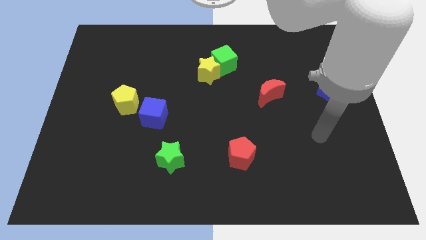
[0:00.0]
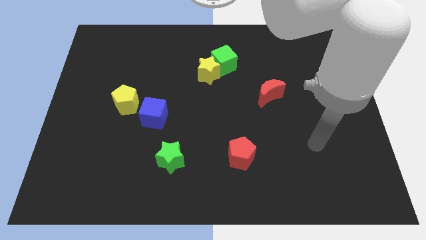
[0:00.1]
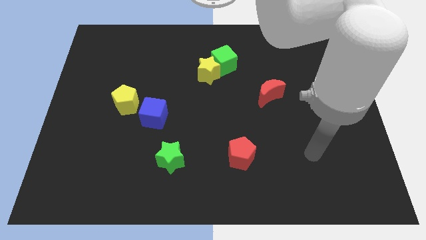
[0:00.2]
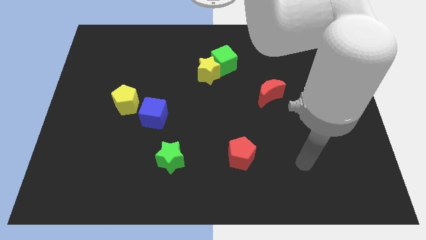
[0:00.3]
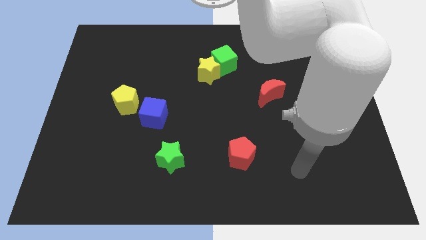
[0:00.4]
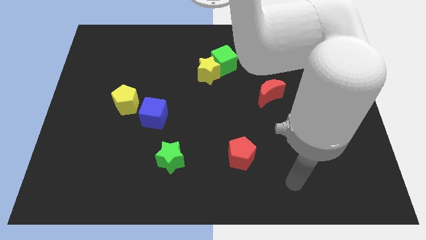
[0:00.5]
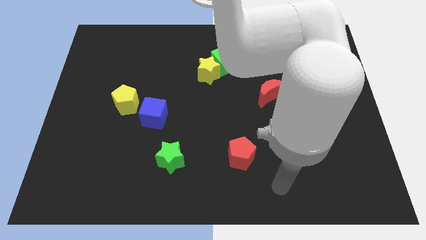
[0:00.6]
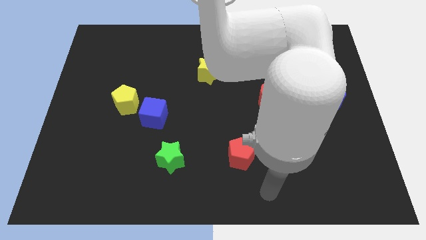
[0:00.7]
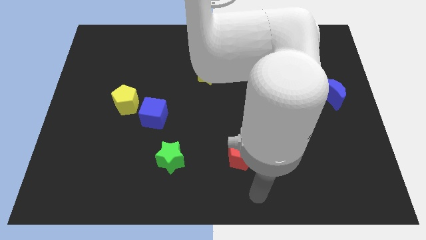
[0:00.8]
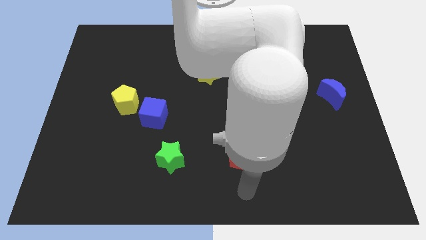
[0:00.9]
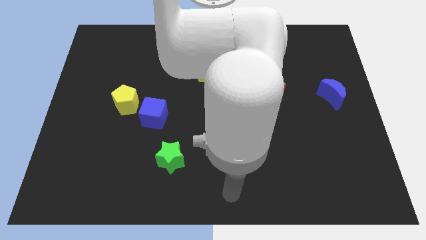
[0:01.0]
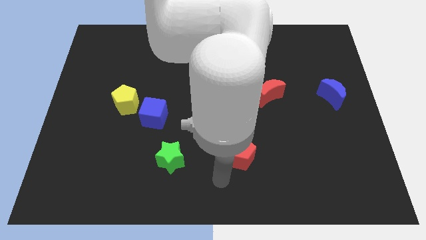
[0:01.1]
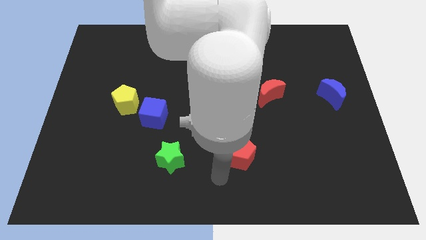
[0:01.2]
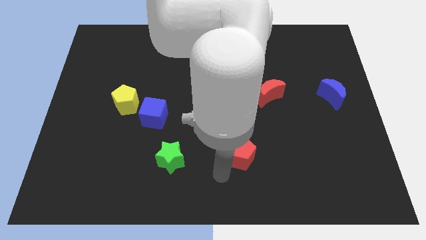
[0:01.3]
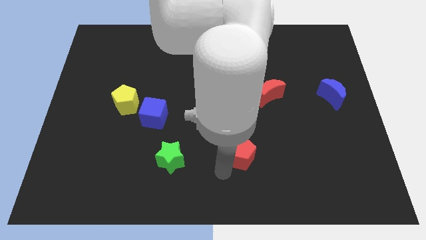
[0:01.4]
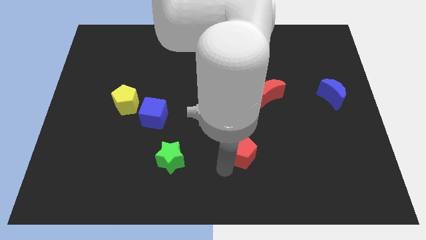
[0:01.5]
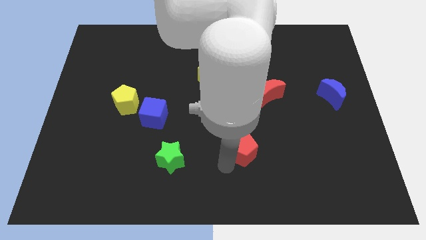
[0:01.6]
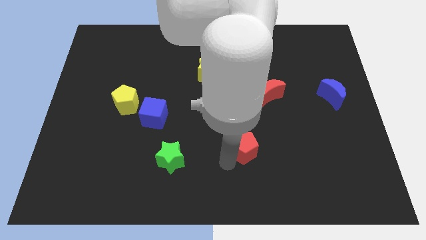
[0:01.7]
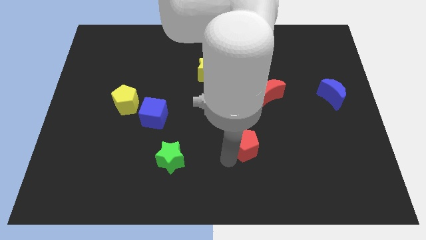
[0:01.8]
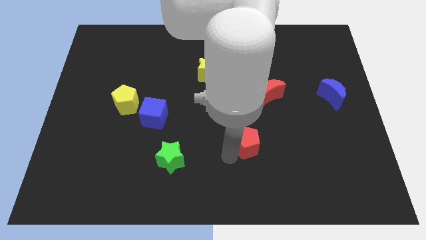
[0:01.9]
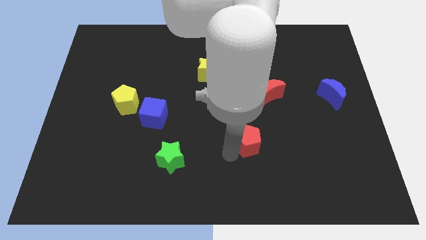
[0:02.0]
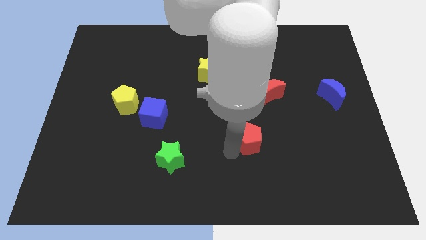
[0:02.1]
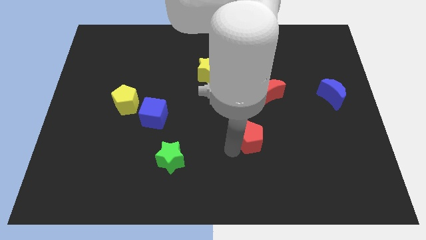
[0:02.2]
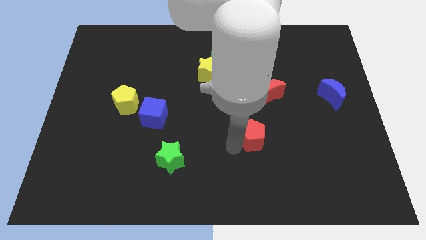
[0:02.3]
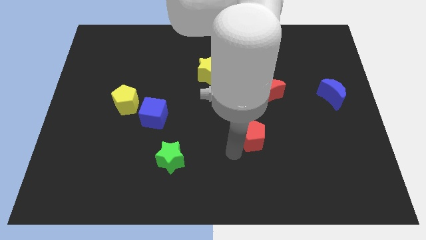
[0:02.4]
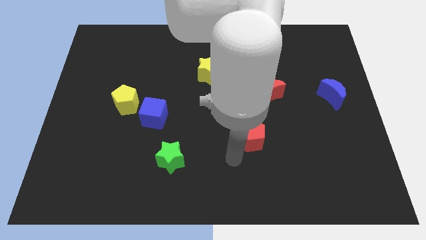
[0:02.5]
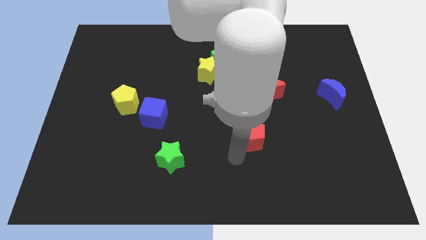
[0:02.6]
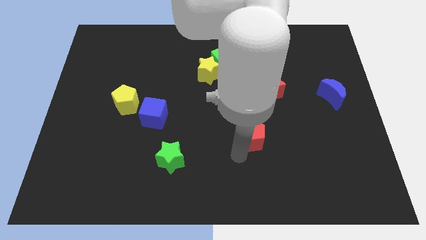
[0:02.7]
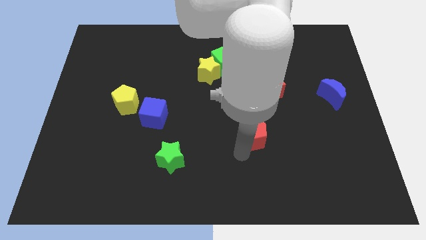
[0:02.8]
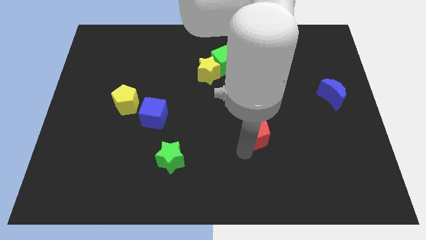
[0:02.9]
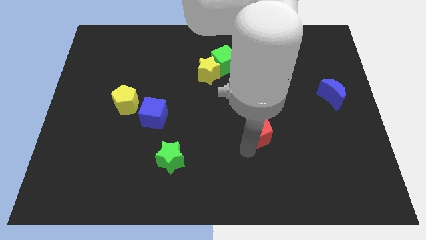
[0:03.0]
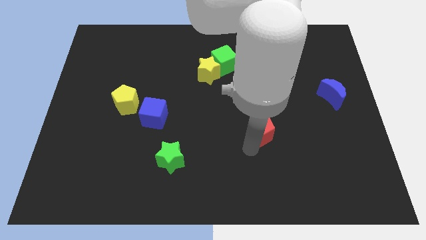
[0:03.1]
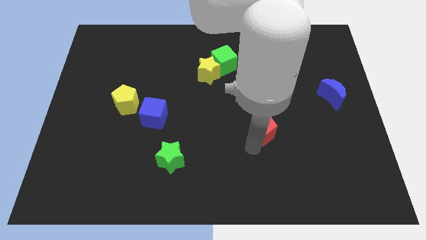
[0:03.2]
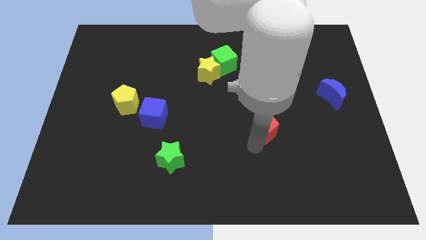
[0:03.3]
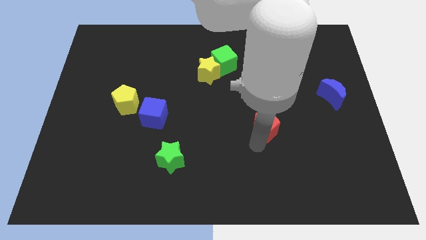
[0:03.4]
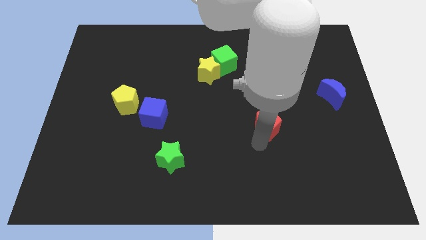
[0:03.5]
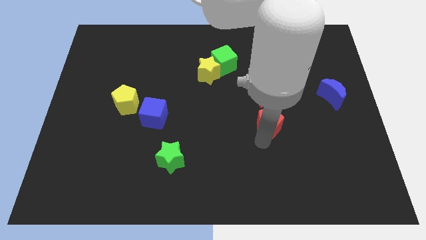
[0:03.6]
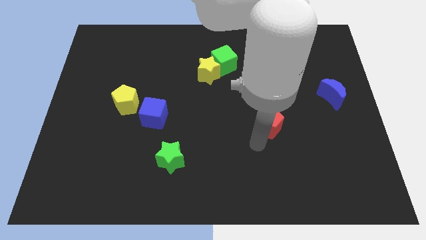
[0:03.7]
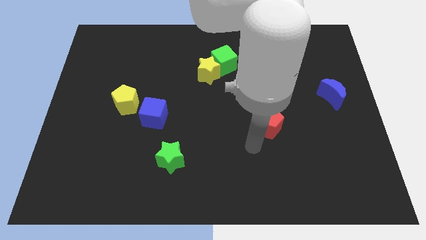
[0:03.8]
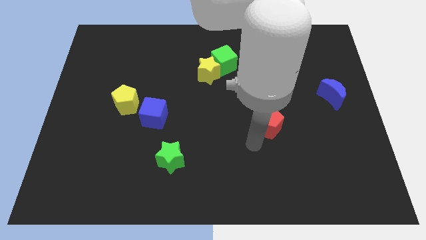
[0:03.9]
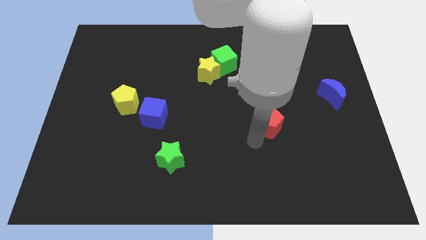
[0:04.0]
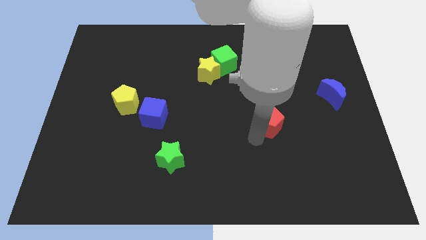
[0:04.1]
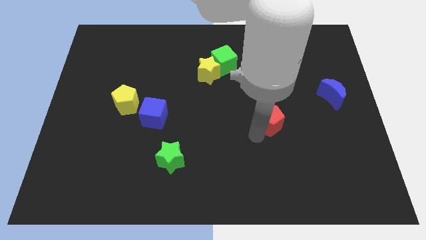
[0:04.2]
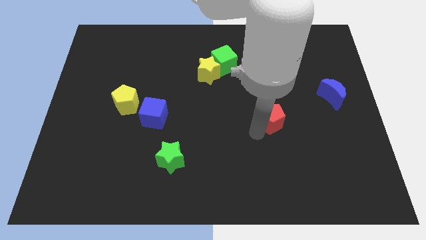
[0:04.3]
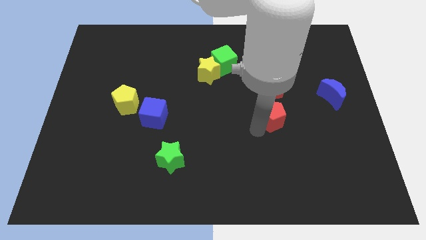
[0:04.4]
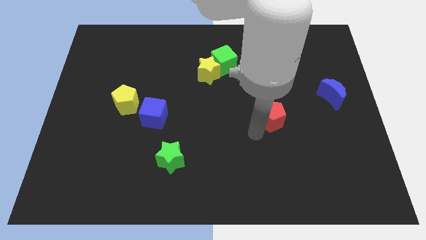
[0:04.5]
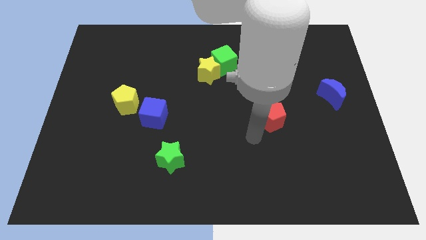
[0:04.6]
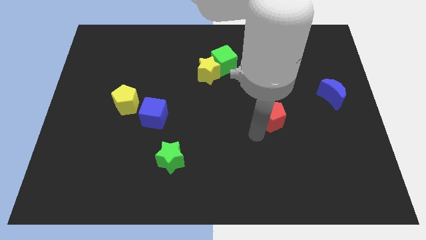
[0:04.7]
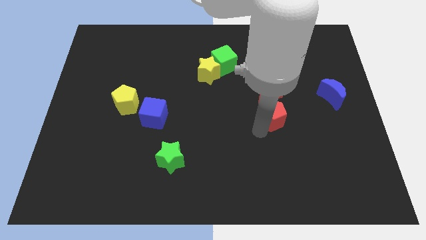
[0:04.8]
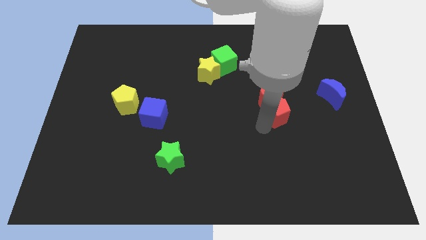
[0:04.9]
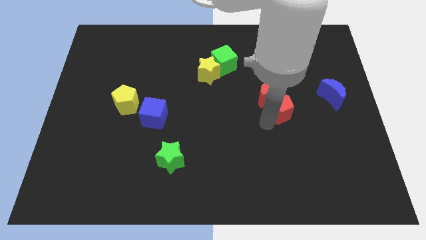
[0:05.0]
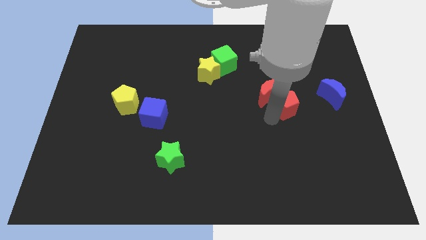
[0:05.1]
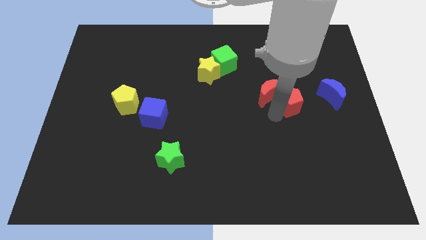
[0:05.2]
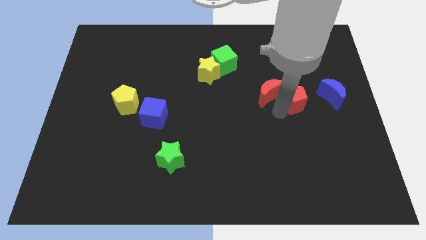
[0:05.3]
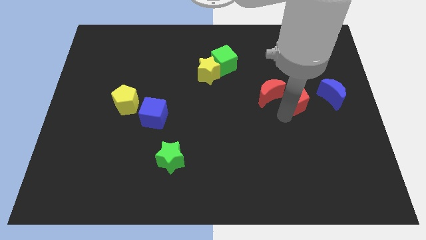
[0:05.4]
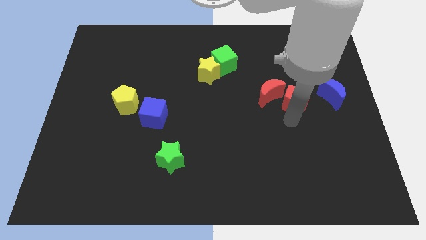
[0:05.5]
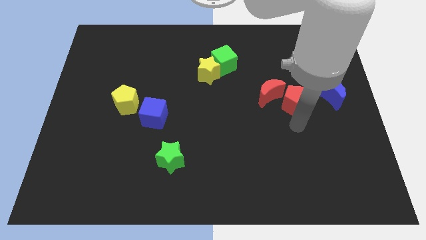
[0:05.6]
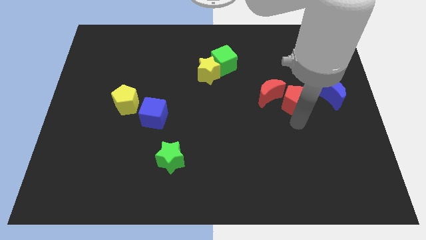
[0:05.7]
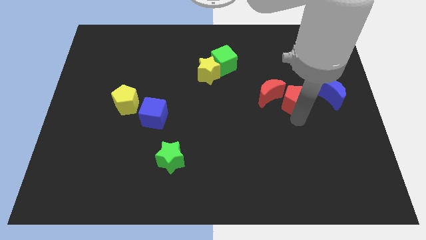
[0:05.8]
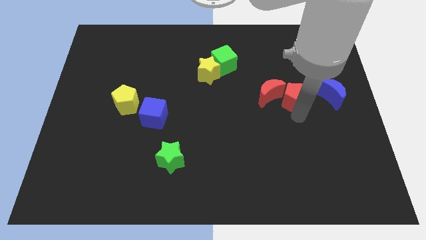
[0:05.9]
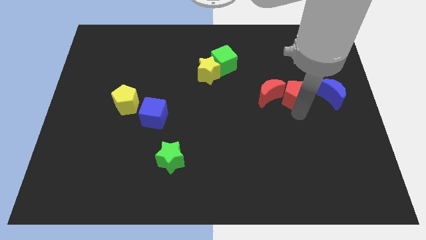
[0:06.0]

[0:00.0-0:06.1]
slide the red pentagon diagonally up and to the right of the red moon
